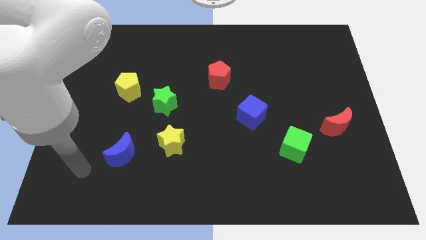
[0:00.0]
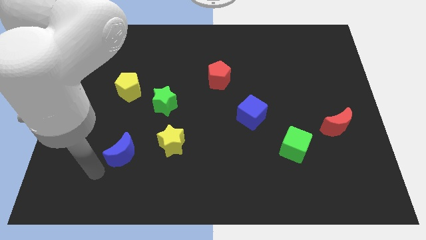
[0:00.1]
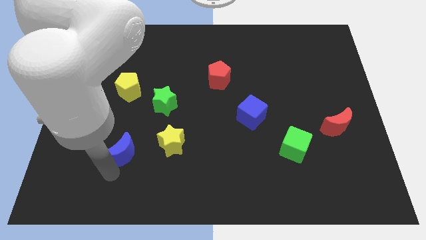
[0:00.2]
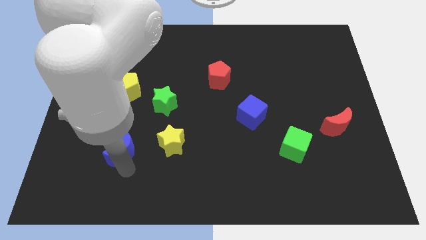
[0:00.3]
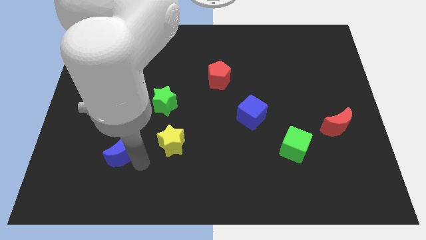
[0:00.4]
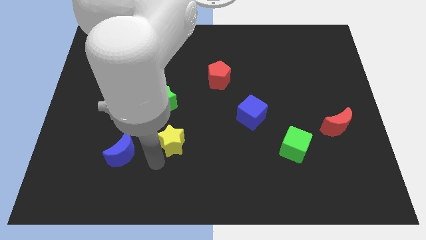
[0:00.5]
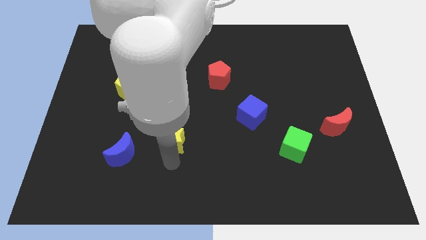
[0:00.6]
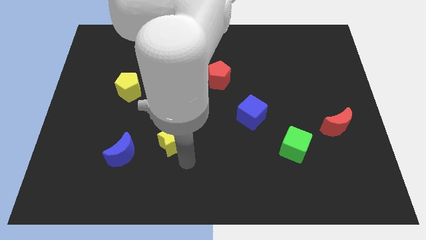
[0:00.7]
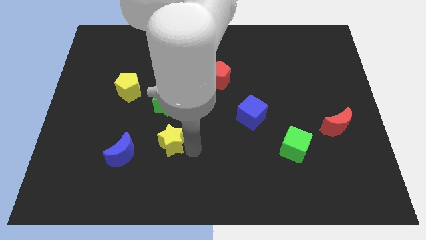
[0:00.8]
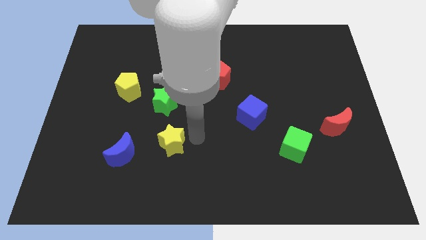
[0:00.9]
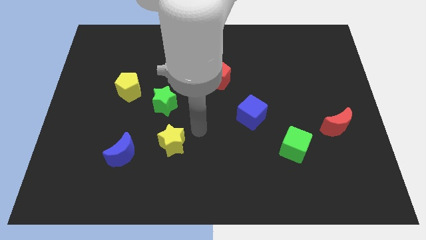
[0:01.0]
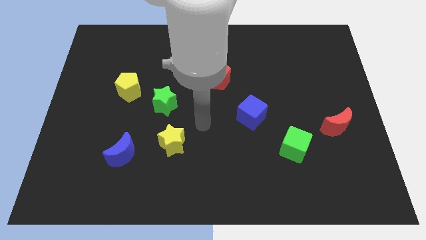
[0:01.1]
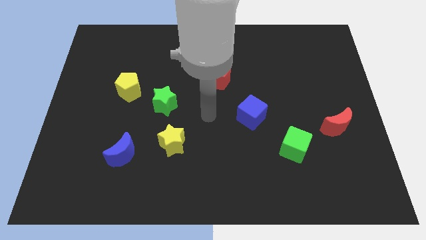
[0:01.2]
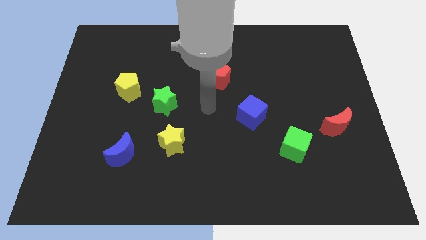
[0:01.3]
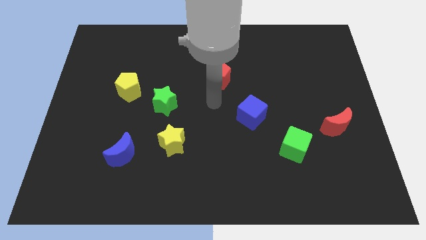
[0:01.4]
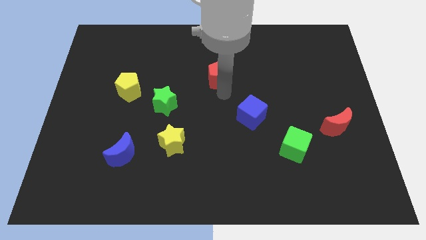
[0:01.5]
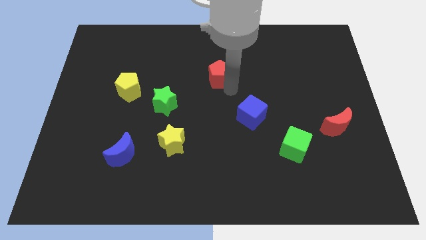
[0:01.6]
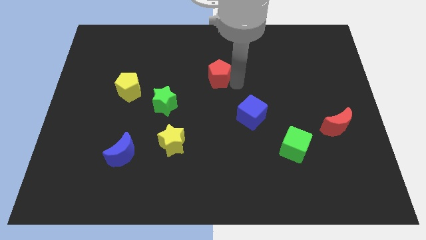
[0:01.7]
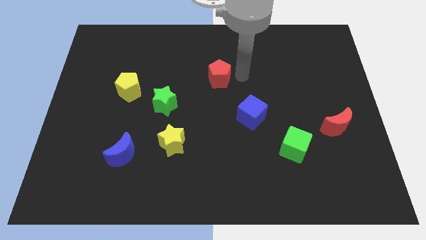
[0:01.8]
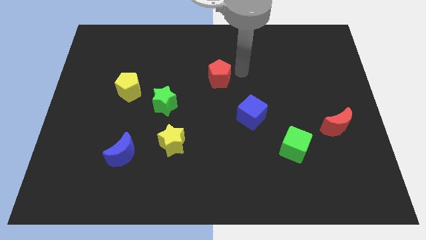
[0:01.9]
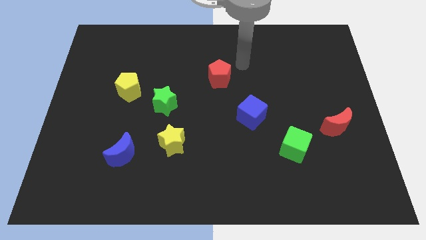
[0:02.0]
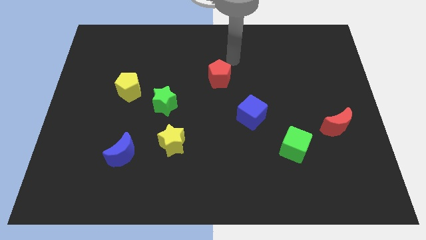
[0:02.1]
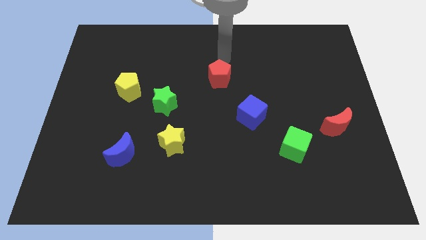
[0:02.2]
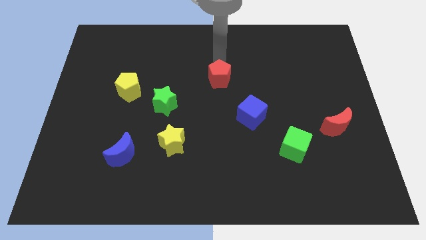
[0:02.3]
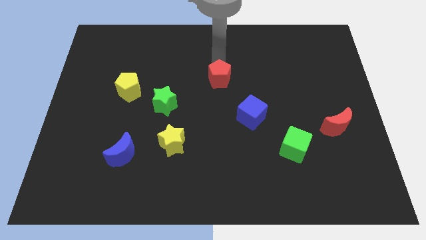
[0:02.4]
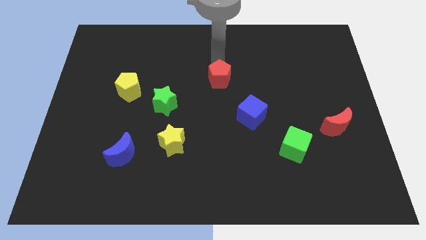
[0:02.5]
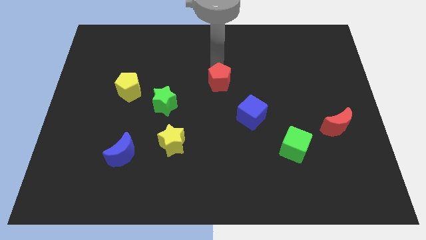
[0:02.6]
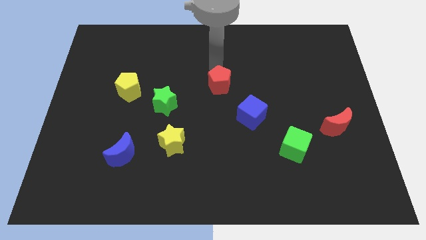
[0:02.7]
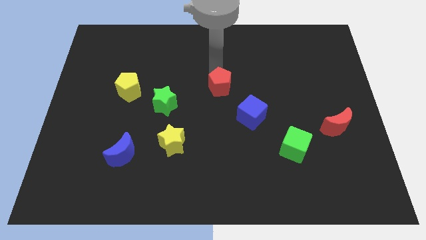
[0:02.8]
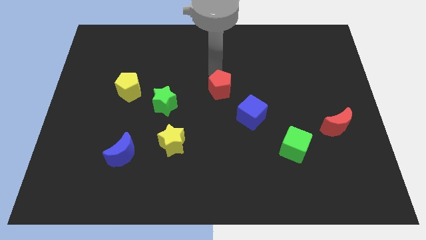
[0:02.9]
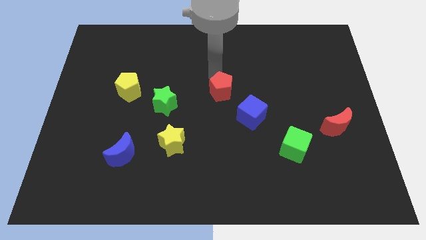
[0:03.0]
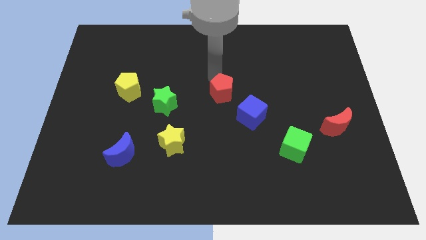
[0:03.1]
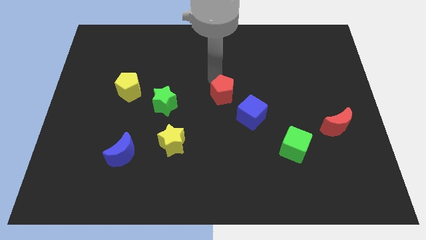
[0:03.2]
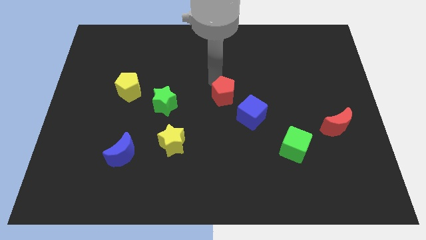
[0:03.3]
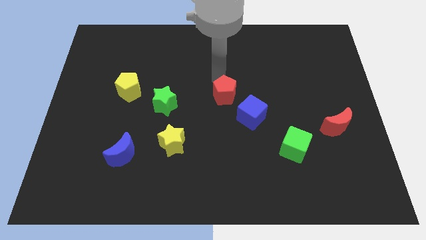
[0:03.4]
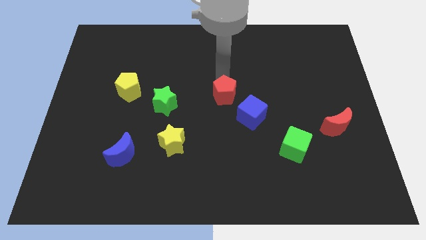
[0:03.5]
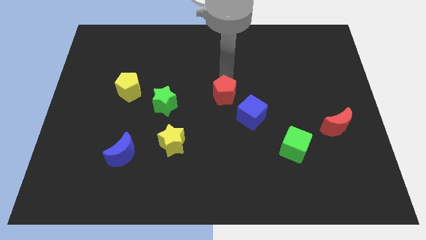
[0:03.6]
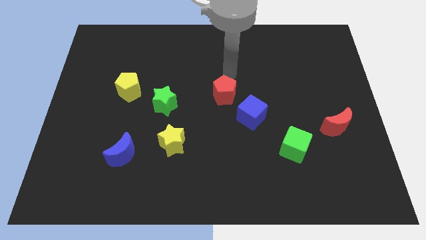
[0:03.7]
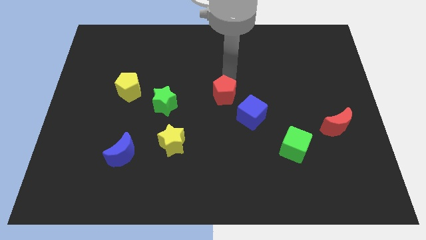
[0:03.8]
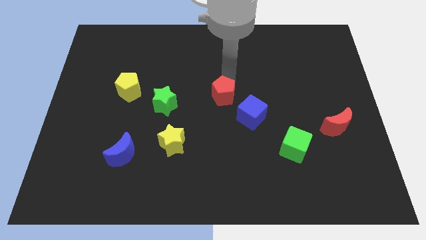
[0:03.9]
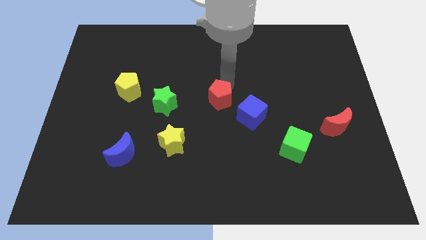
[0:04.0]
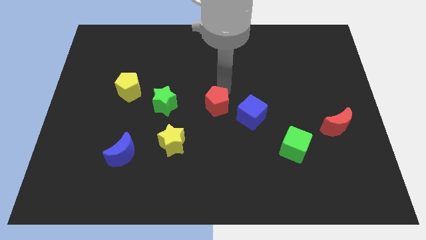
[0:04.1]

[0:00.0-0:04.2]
push the red pentagon down a bit

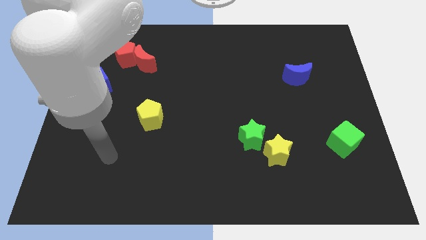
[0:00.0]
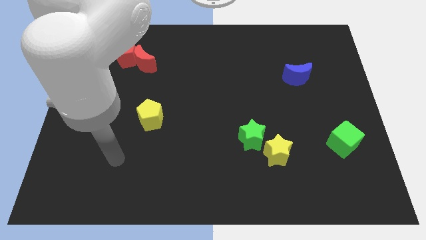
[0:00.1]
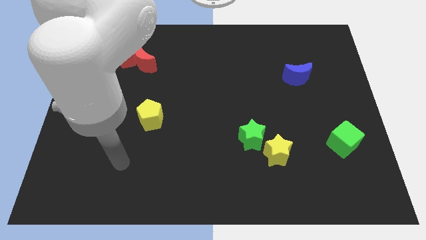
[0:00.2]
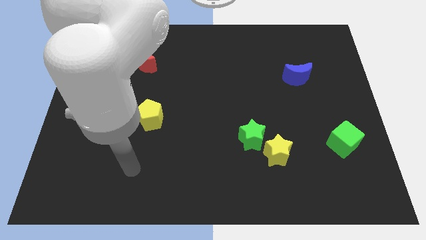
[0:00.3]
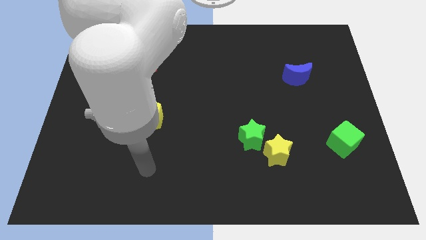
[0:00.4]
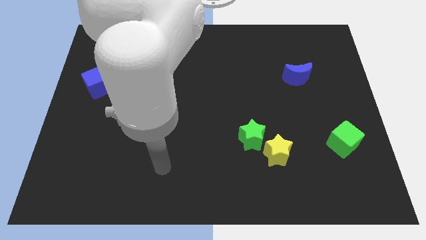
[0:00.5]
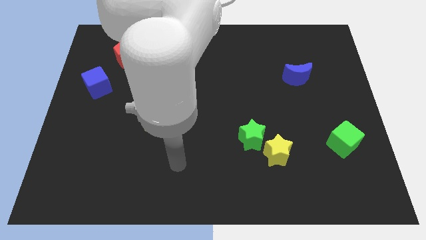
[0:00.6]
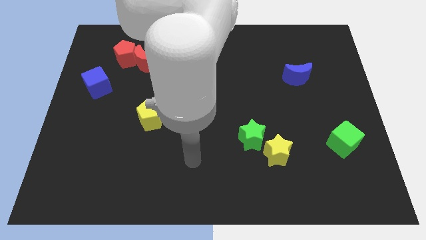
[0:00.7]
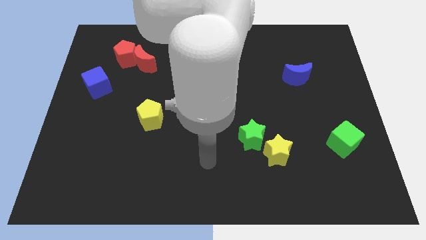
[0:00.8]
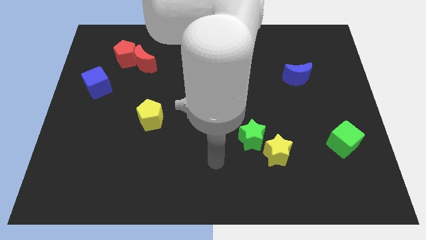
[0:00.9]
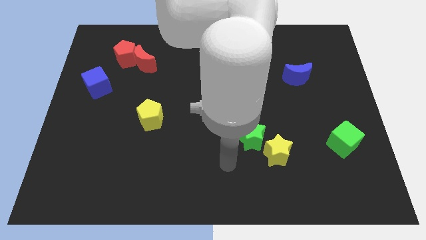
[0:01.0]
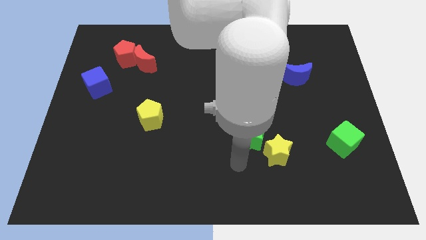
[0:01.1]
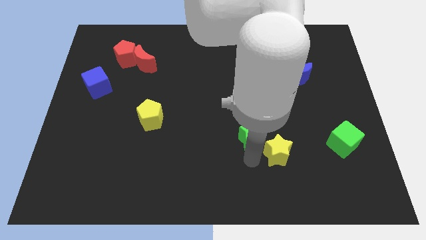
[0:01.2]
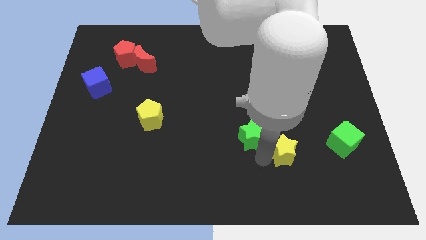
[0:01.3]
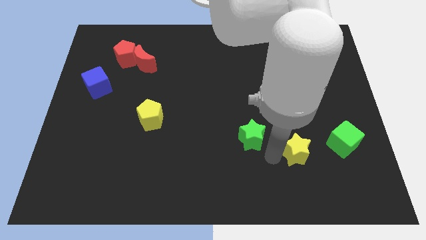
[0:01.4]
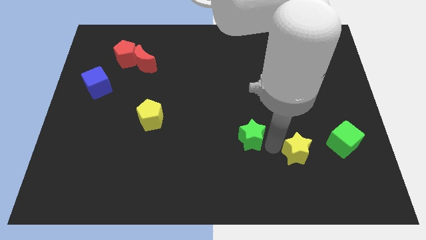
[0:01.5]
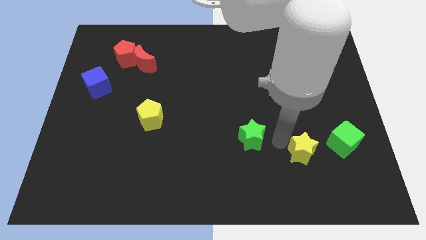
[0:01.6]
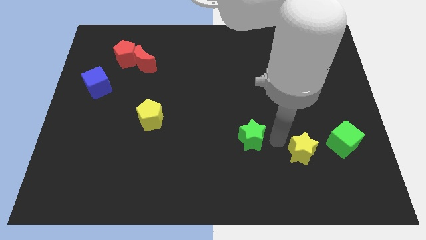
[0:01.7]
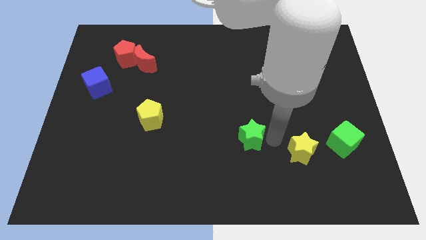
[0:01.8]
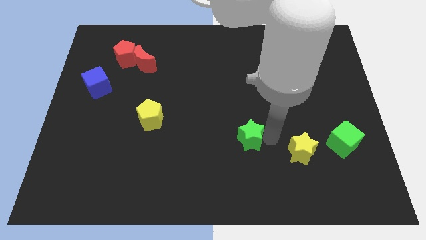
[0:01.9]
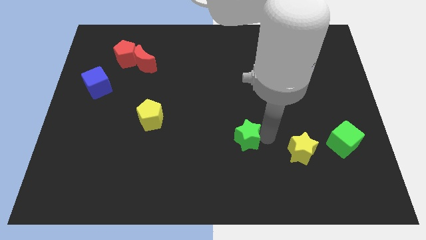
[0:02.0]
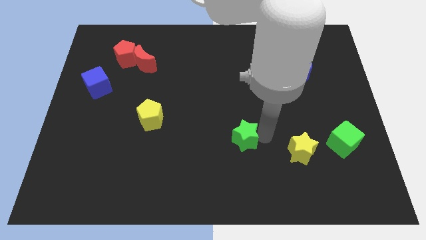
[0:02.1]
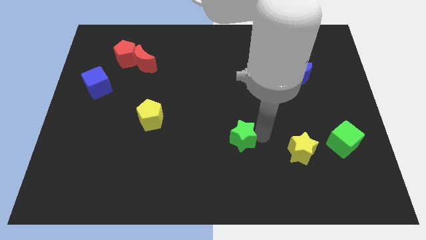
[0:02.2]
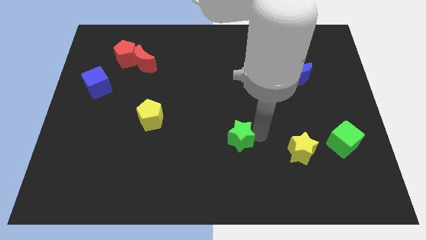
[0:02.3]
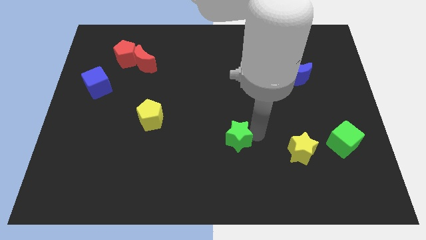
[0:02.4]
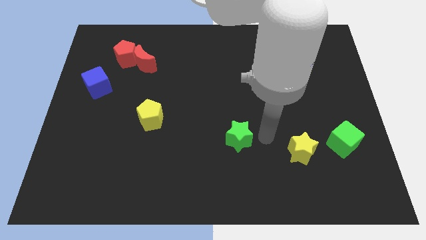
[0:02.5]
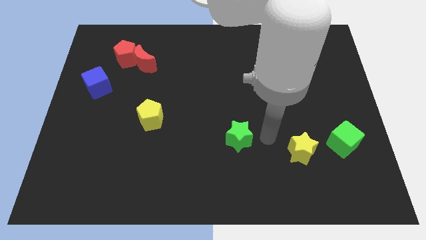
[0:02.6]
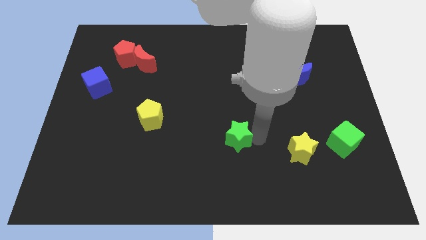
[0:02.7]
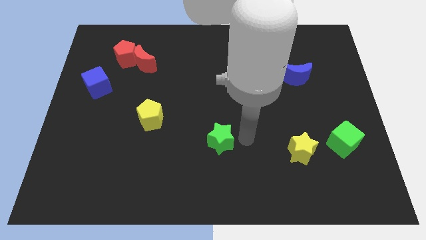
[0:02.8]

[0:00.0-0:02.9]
slightly move the green star left

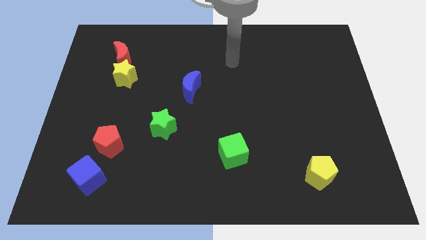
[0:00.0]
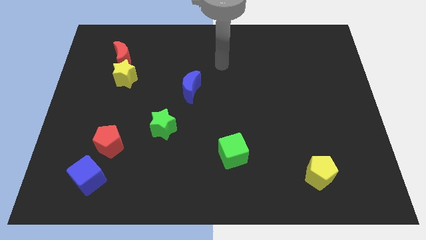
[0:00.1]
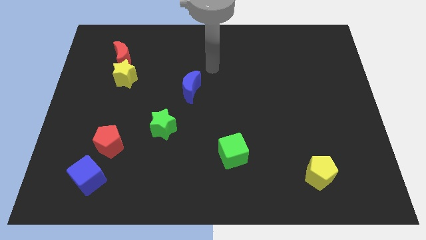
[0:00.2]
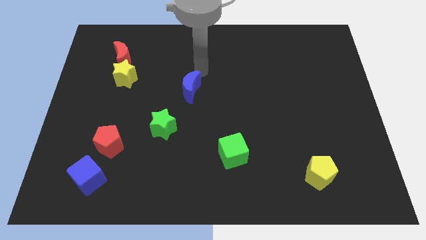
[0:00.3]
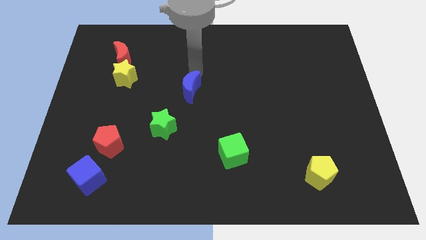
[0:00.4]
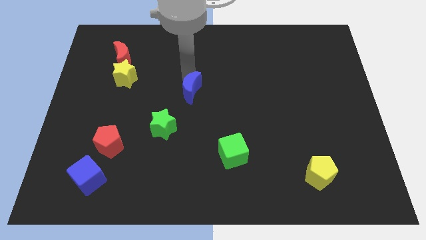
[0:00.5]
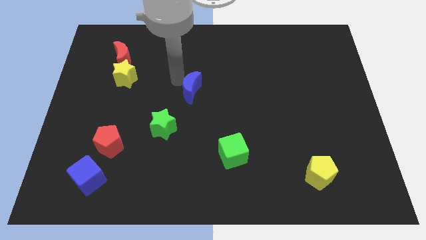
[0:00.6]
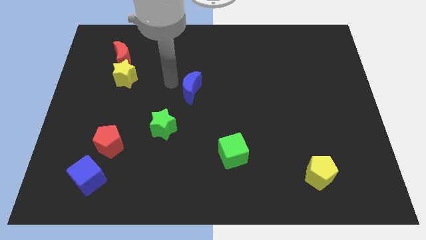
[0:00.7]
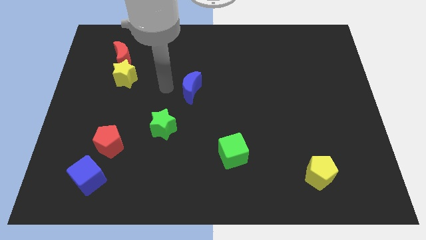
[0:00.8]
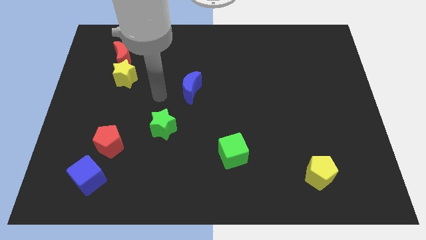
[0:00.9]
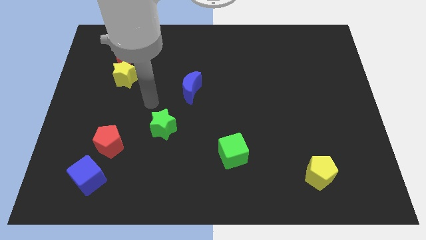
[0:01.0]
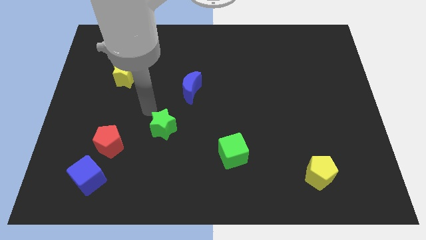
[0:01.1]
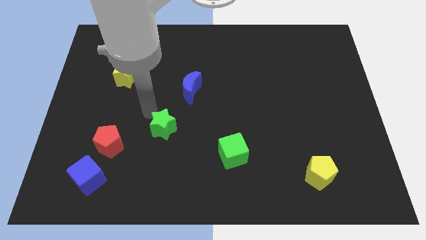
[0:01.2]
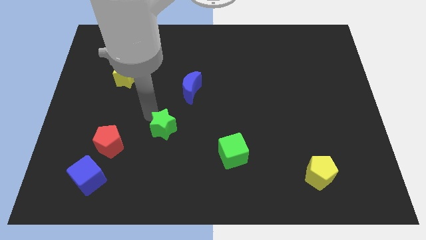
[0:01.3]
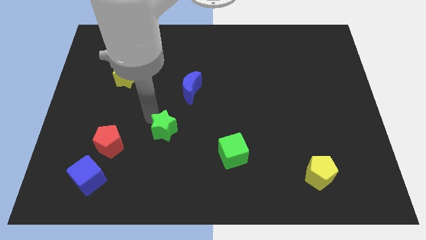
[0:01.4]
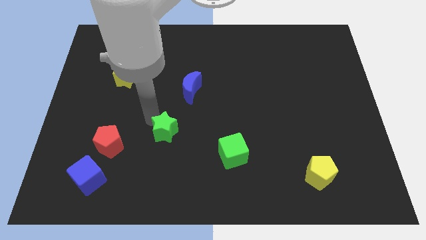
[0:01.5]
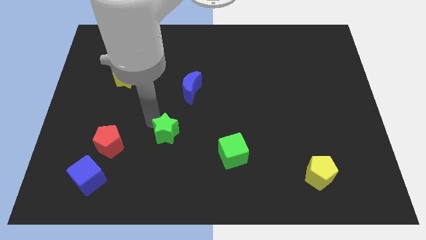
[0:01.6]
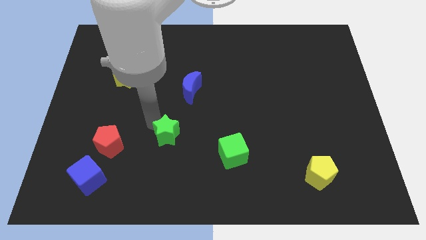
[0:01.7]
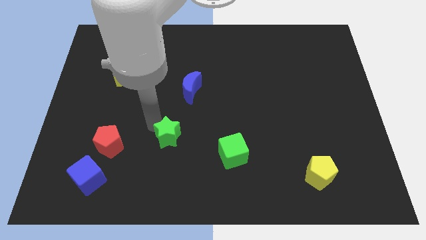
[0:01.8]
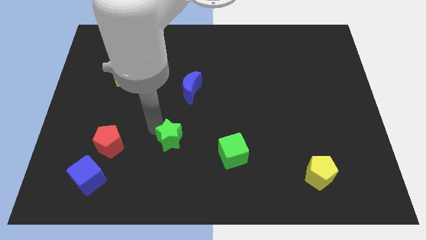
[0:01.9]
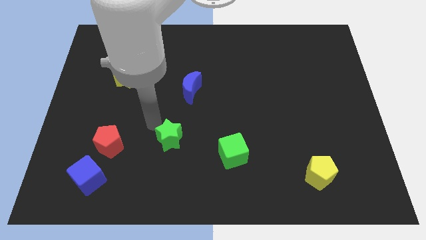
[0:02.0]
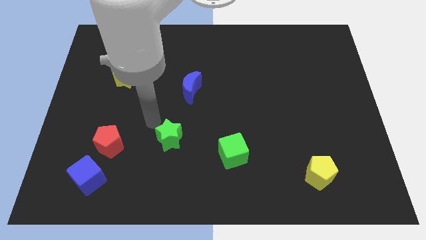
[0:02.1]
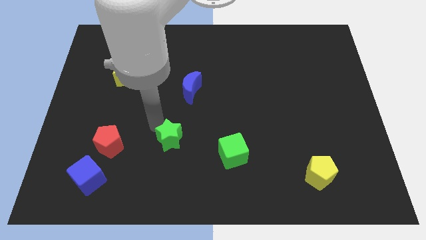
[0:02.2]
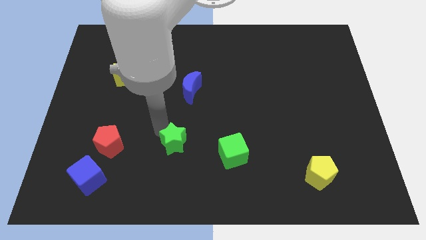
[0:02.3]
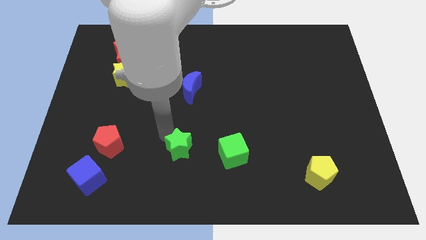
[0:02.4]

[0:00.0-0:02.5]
slide the green star a little down and to the right
